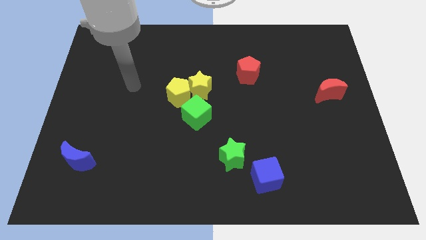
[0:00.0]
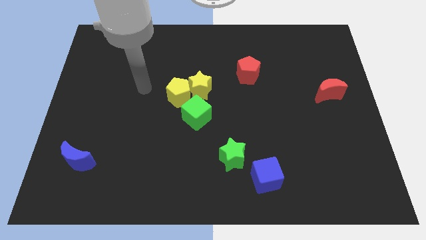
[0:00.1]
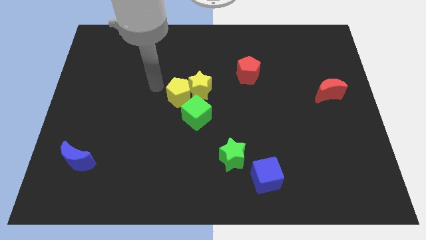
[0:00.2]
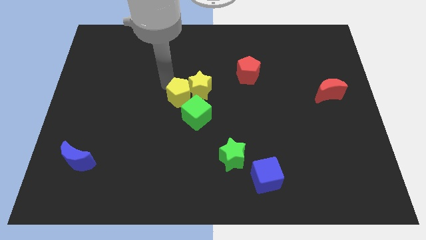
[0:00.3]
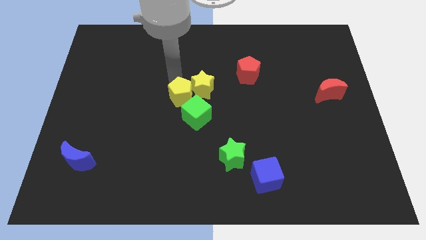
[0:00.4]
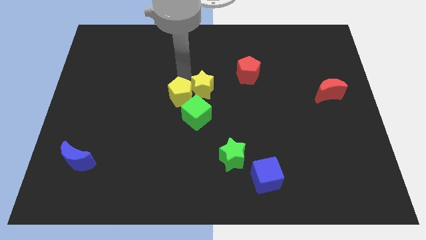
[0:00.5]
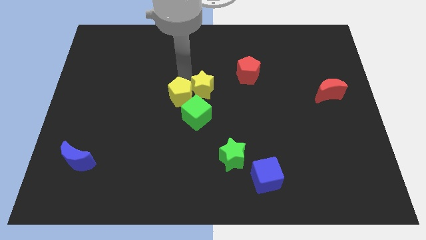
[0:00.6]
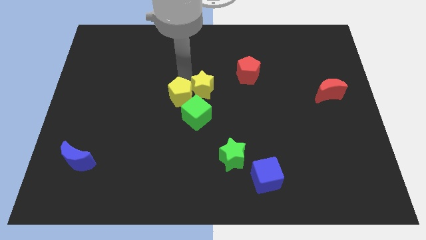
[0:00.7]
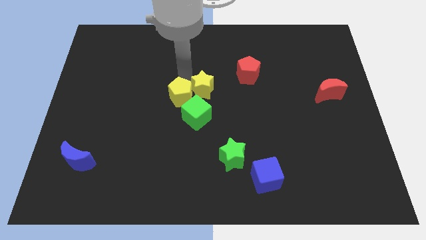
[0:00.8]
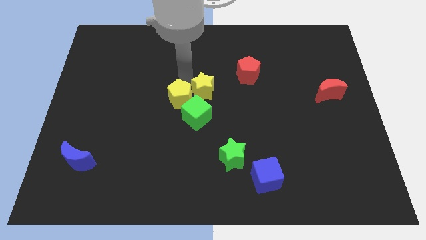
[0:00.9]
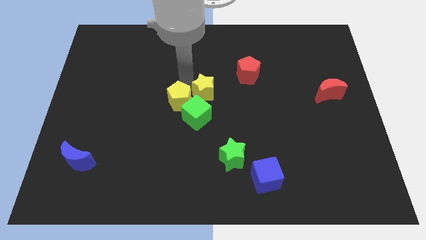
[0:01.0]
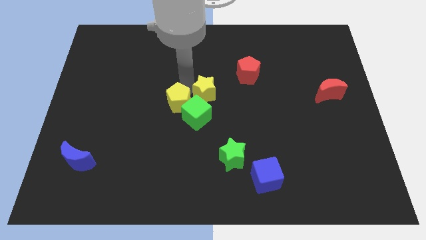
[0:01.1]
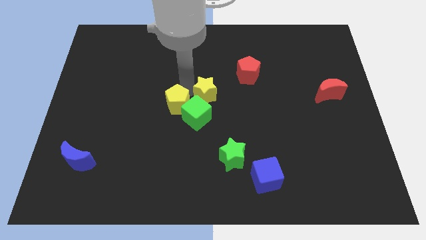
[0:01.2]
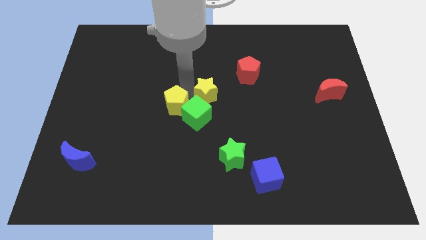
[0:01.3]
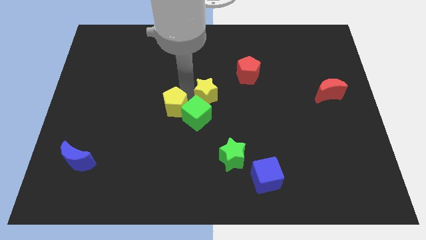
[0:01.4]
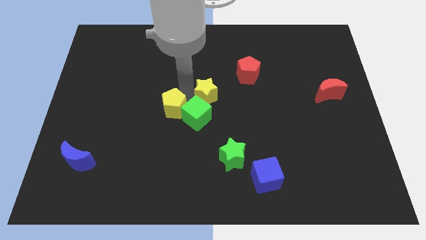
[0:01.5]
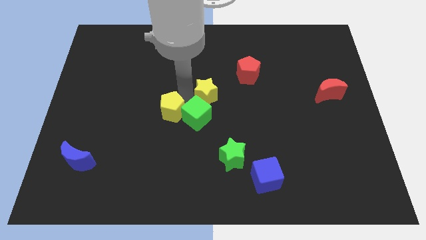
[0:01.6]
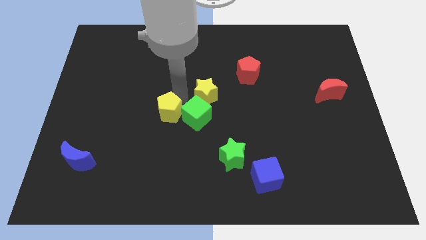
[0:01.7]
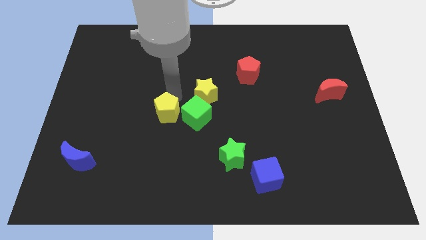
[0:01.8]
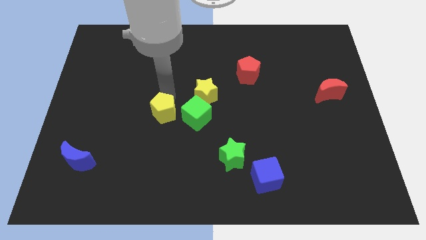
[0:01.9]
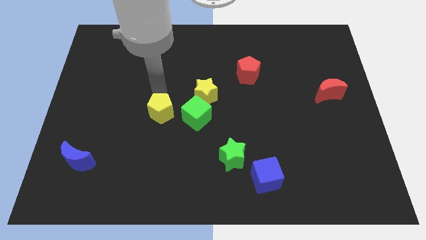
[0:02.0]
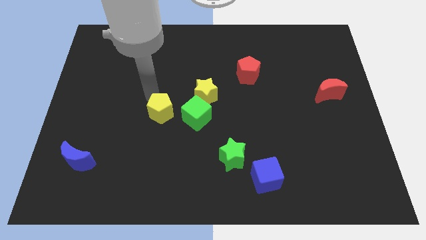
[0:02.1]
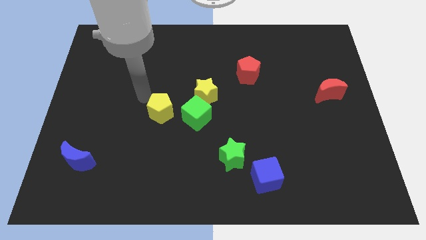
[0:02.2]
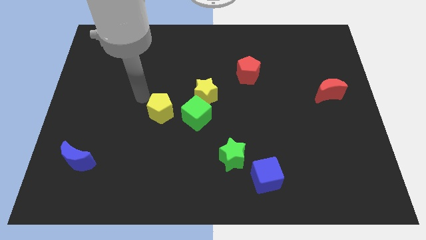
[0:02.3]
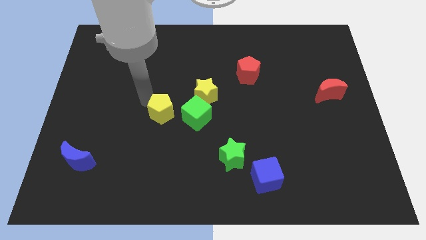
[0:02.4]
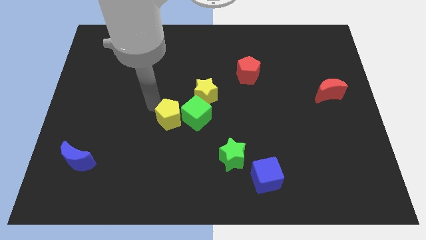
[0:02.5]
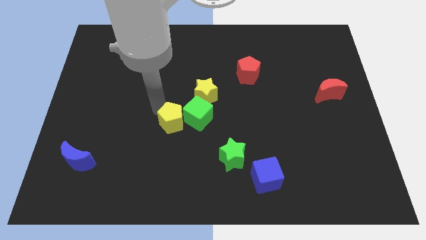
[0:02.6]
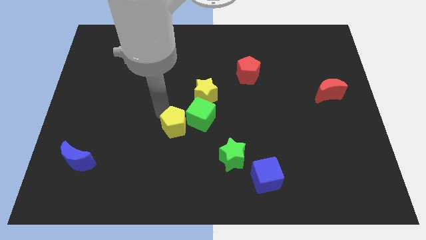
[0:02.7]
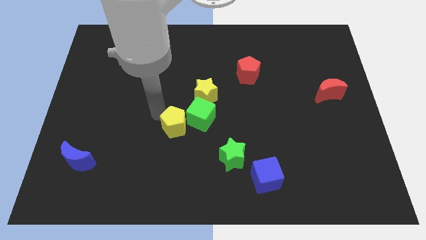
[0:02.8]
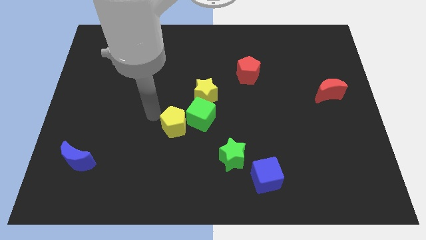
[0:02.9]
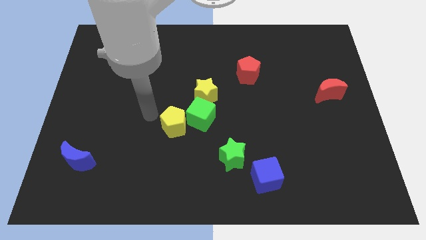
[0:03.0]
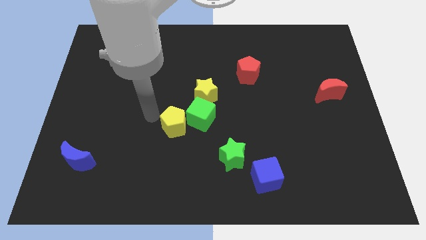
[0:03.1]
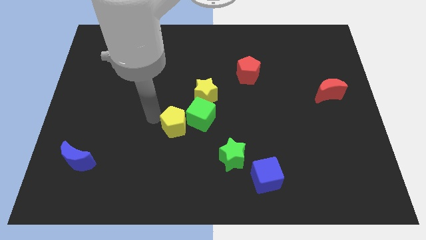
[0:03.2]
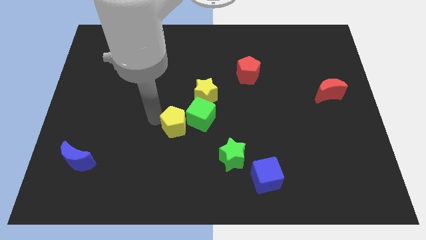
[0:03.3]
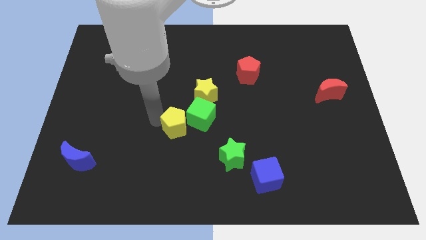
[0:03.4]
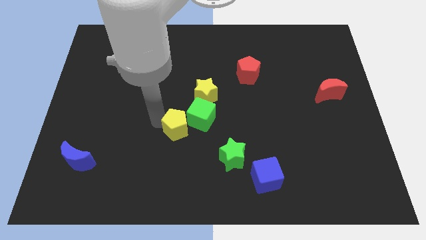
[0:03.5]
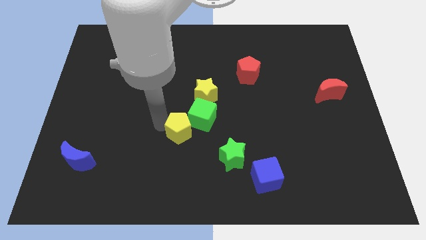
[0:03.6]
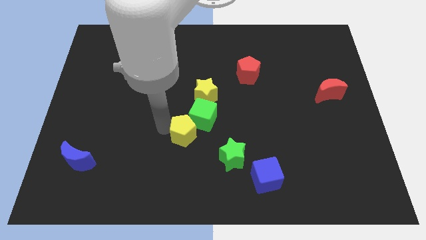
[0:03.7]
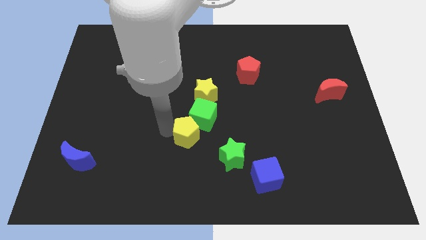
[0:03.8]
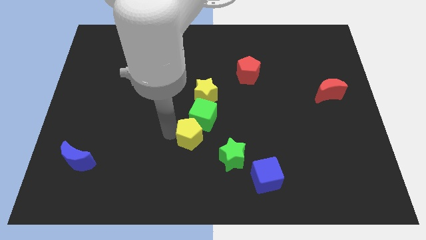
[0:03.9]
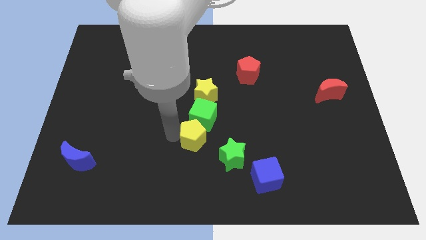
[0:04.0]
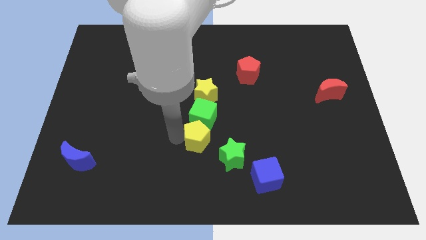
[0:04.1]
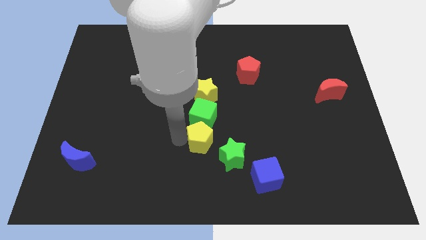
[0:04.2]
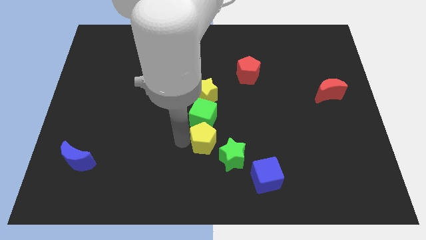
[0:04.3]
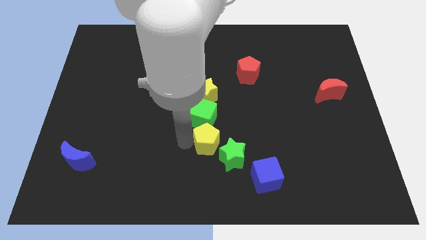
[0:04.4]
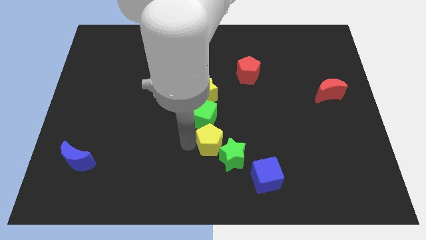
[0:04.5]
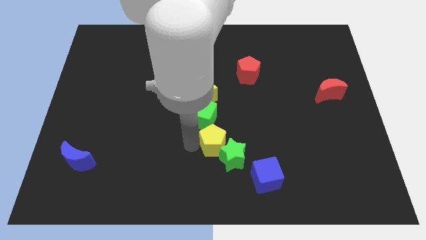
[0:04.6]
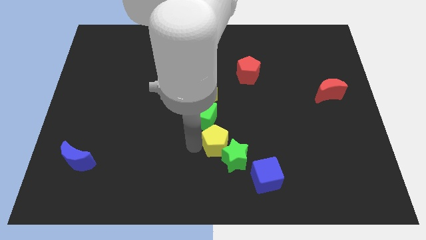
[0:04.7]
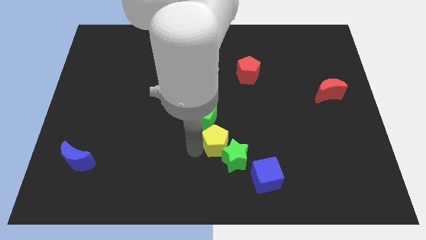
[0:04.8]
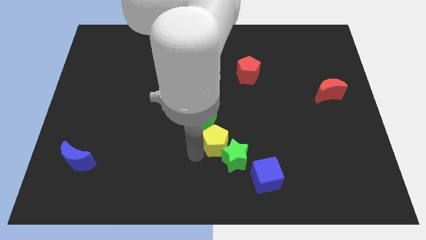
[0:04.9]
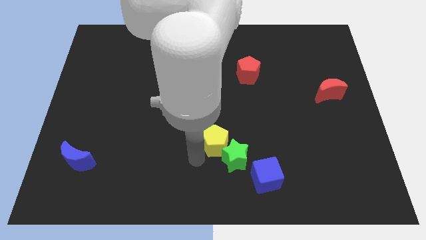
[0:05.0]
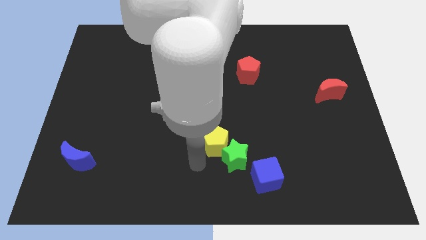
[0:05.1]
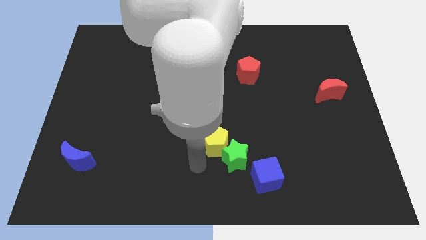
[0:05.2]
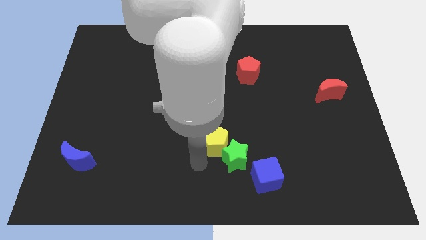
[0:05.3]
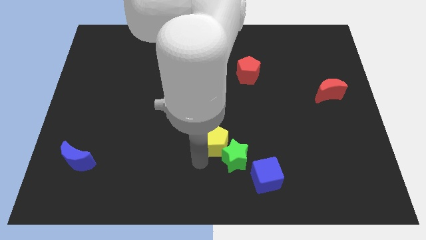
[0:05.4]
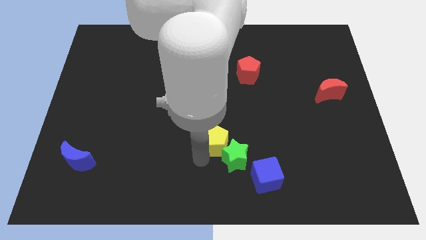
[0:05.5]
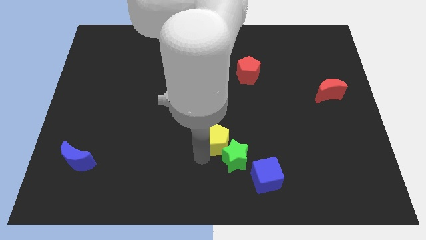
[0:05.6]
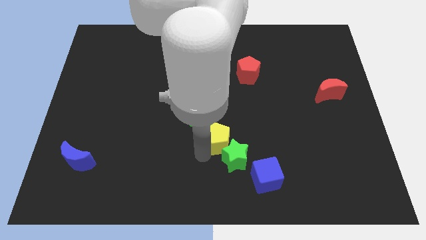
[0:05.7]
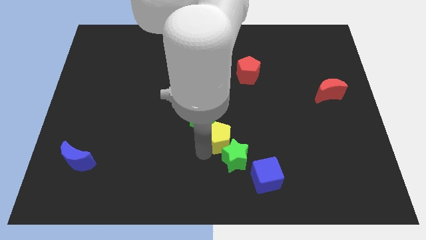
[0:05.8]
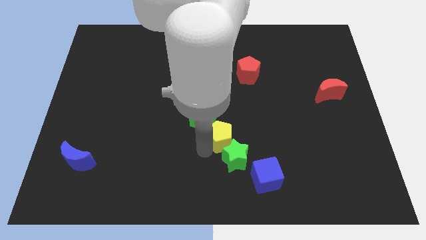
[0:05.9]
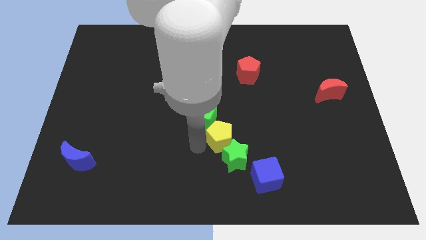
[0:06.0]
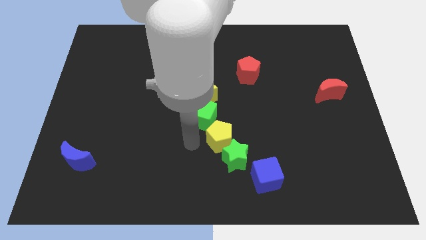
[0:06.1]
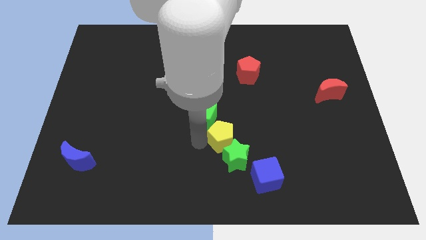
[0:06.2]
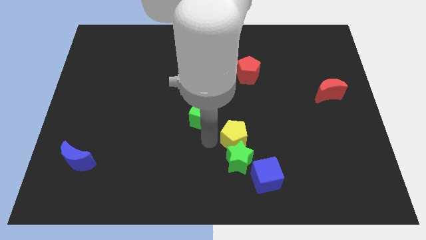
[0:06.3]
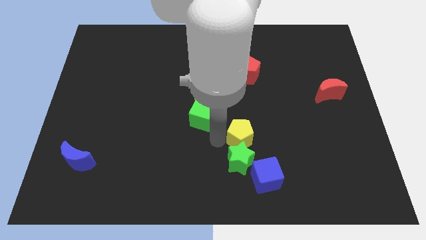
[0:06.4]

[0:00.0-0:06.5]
move the yellow pentagon to the top of the blue cube
